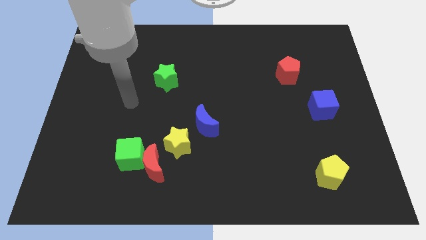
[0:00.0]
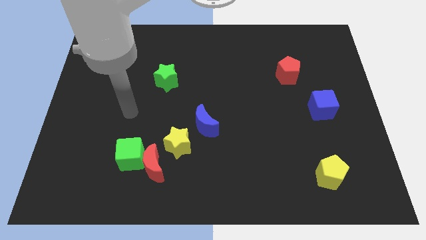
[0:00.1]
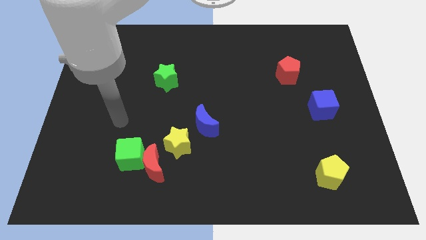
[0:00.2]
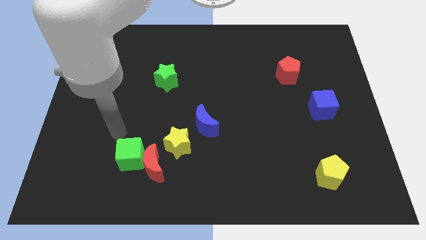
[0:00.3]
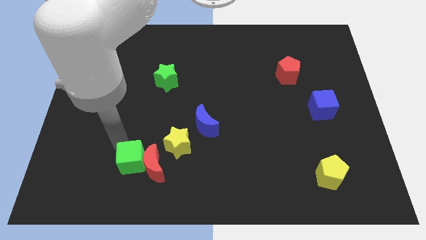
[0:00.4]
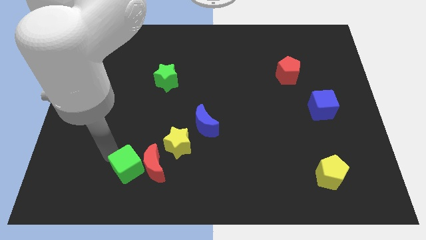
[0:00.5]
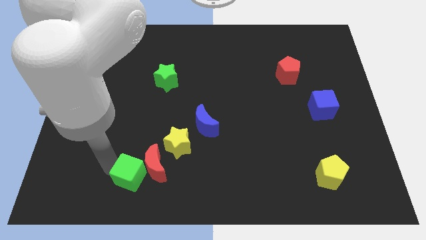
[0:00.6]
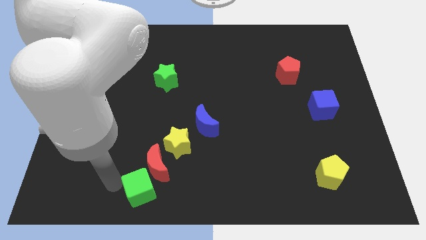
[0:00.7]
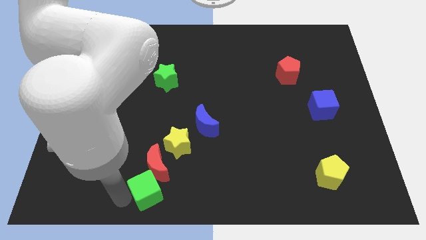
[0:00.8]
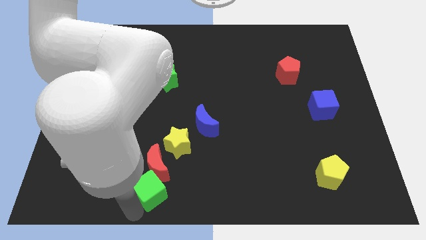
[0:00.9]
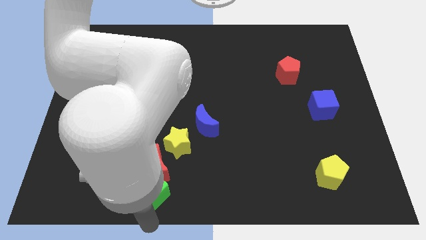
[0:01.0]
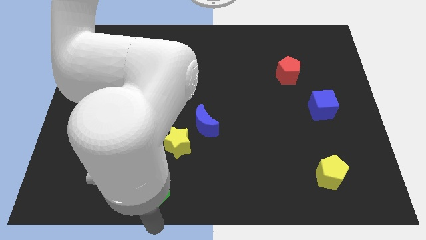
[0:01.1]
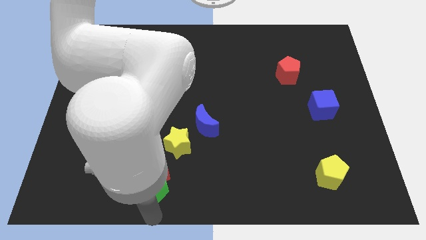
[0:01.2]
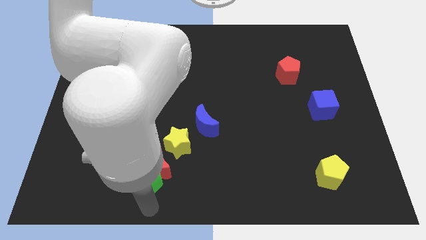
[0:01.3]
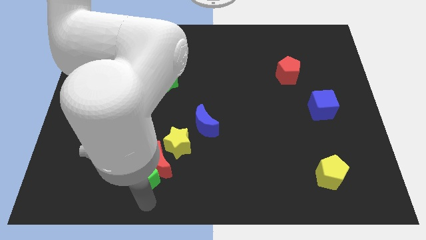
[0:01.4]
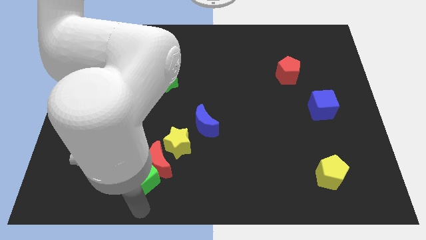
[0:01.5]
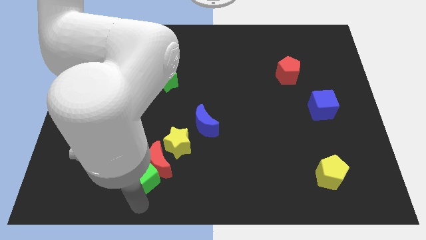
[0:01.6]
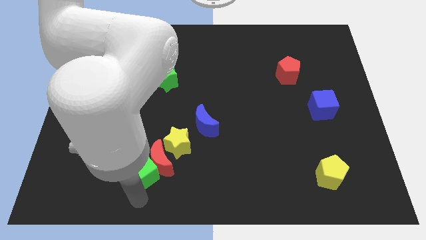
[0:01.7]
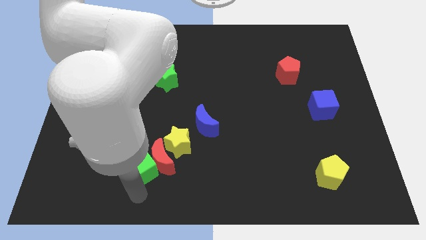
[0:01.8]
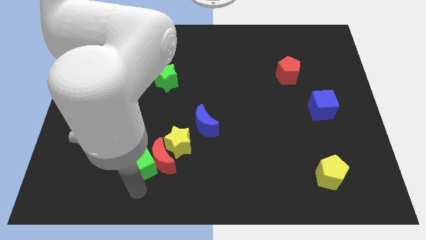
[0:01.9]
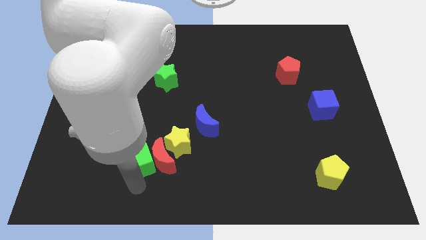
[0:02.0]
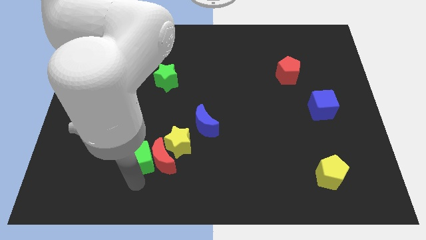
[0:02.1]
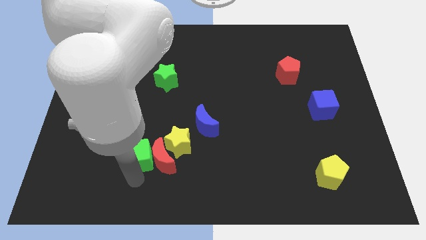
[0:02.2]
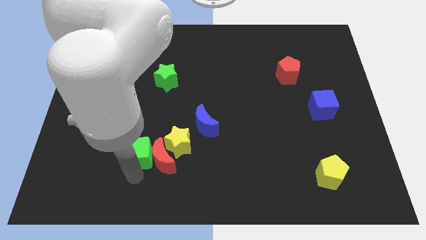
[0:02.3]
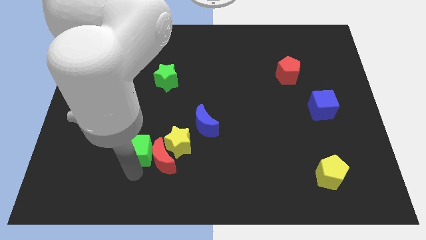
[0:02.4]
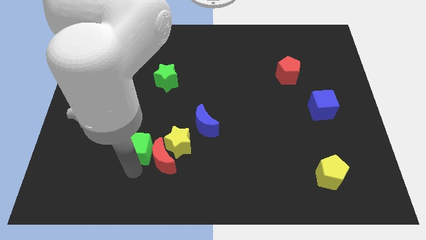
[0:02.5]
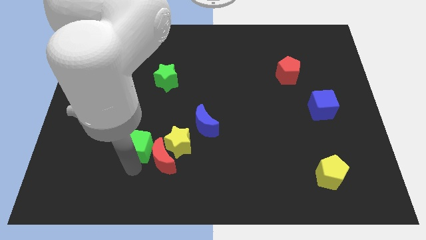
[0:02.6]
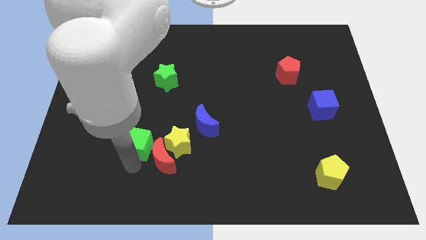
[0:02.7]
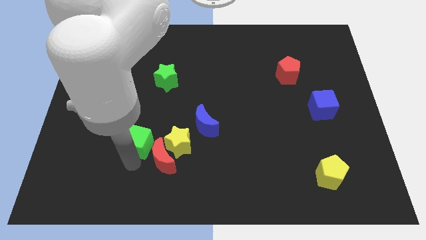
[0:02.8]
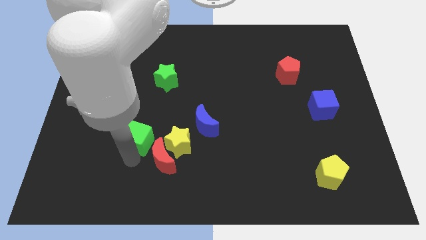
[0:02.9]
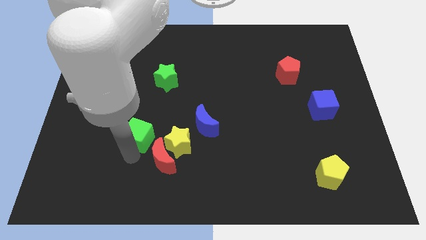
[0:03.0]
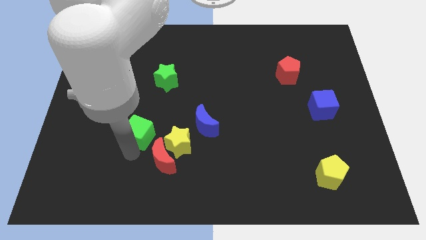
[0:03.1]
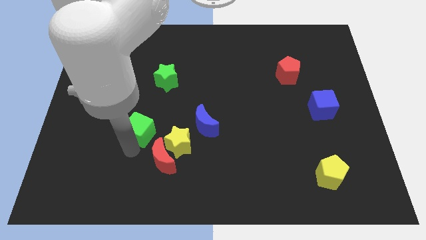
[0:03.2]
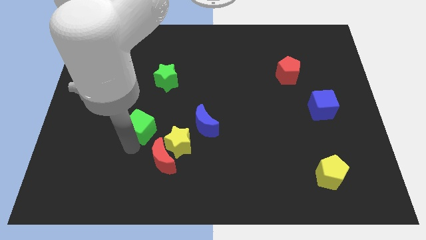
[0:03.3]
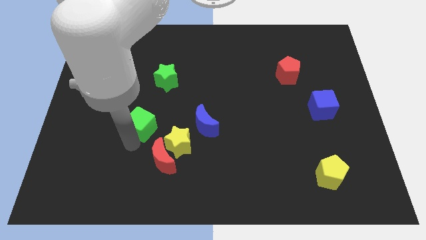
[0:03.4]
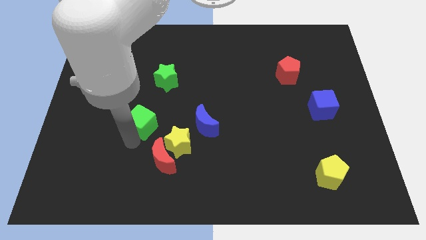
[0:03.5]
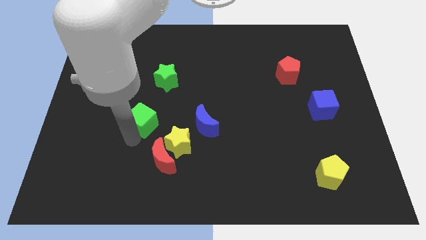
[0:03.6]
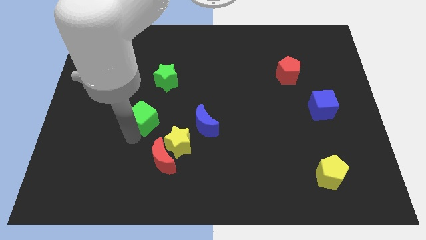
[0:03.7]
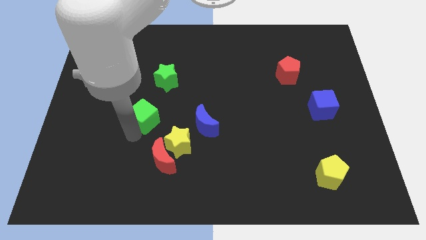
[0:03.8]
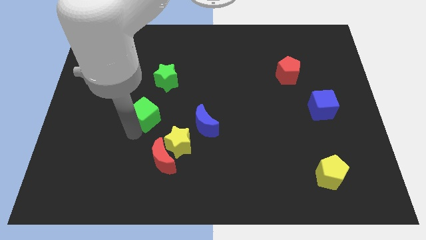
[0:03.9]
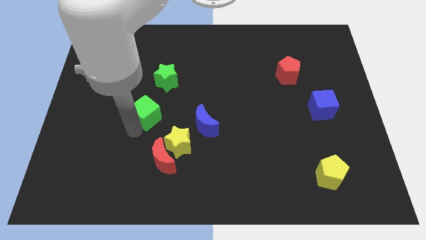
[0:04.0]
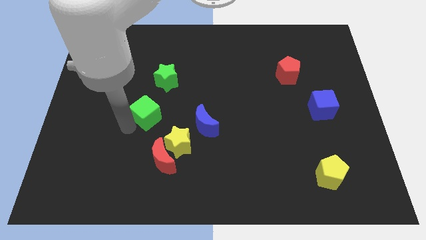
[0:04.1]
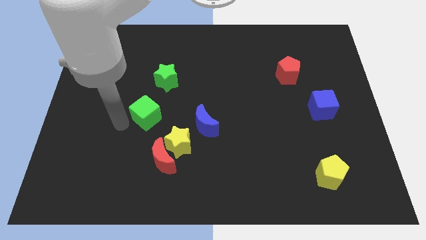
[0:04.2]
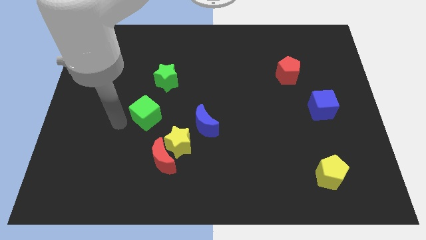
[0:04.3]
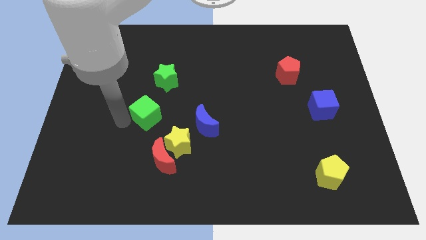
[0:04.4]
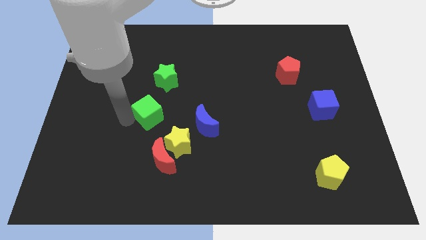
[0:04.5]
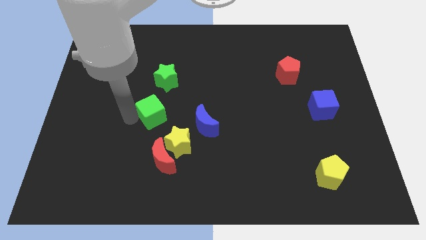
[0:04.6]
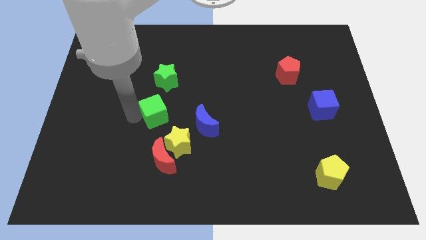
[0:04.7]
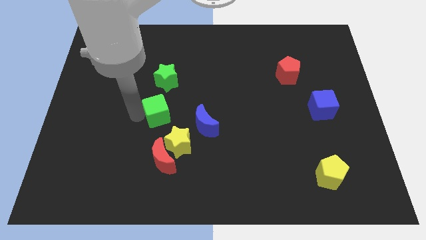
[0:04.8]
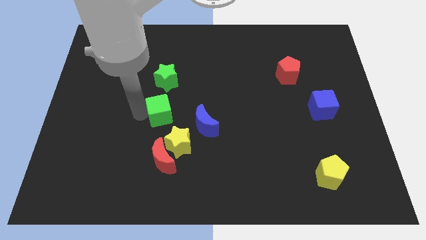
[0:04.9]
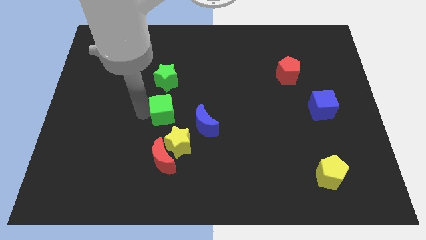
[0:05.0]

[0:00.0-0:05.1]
put the green cube to the top left side of the blue moon

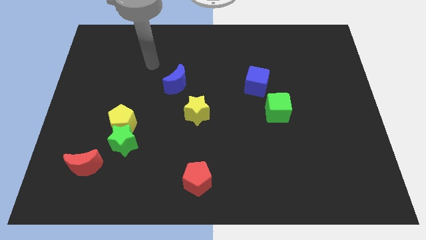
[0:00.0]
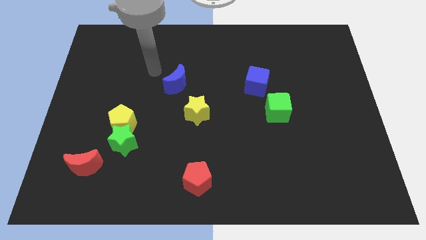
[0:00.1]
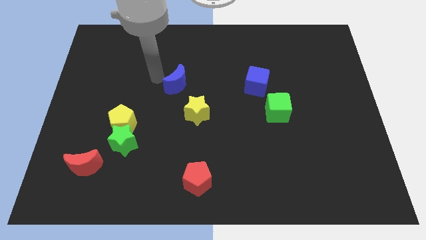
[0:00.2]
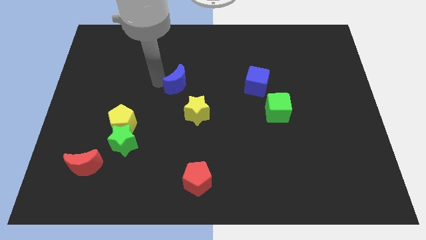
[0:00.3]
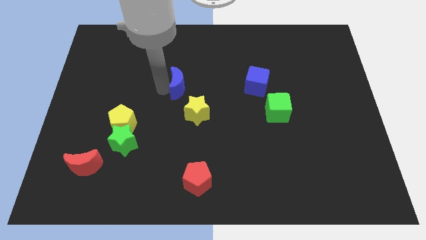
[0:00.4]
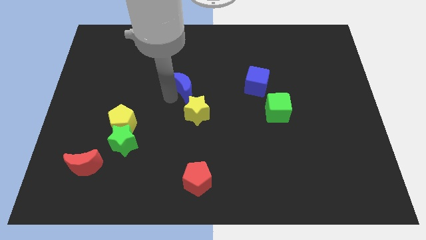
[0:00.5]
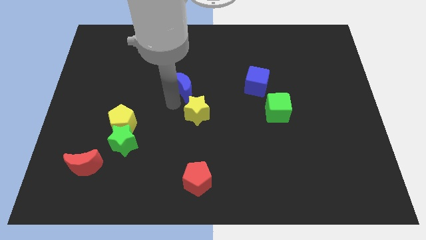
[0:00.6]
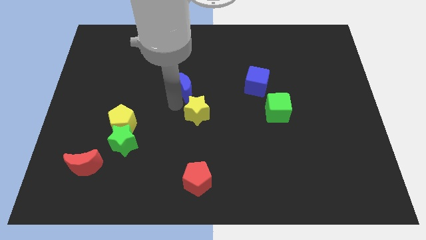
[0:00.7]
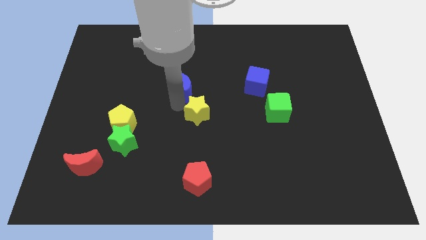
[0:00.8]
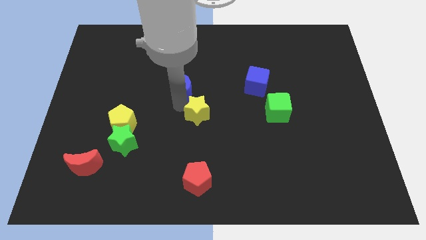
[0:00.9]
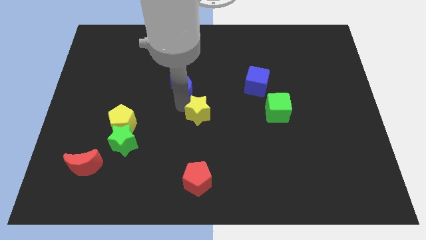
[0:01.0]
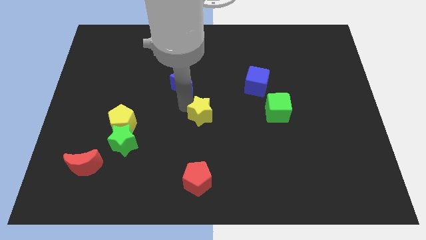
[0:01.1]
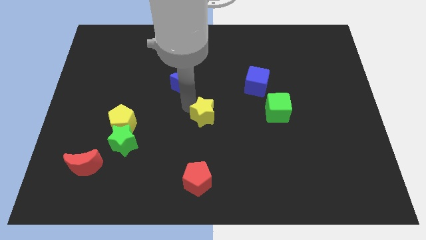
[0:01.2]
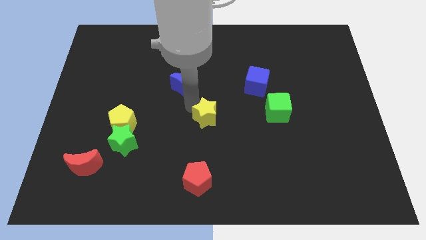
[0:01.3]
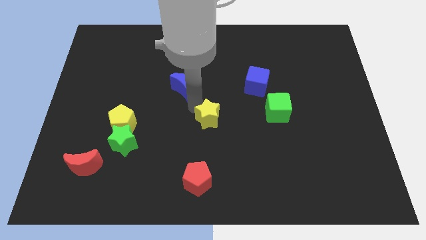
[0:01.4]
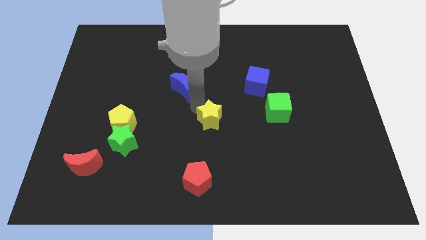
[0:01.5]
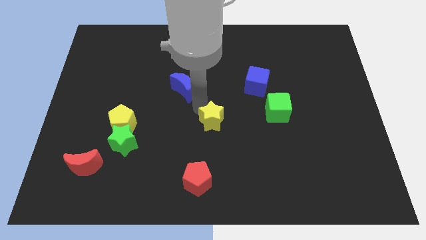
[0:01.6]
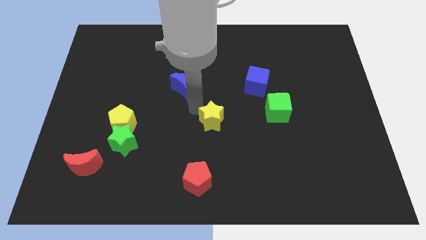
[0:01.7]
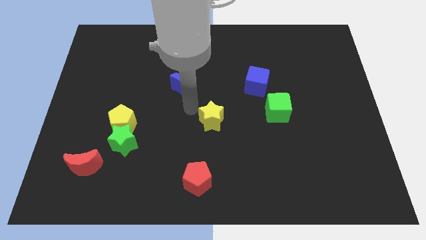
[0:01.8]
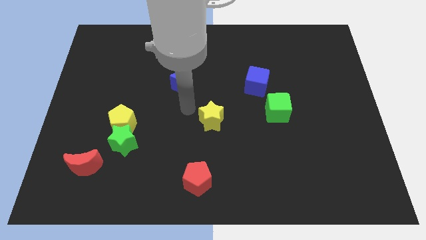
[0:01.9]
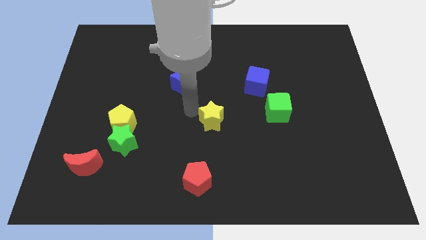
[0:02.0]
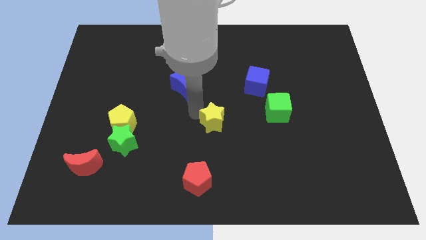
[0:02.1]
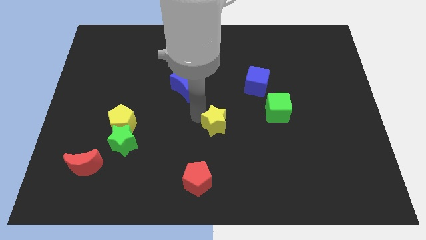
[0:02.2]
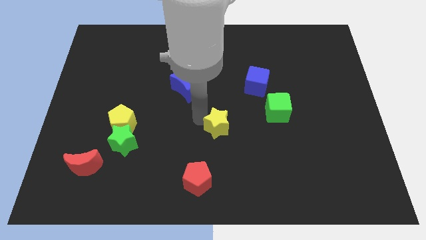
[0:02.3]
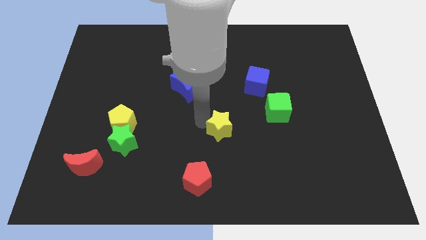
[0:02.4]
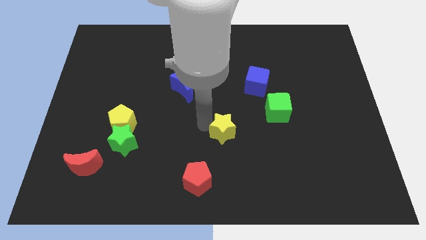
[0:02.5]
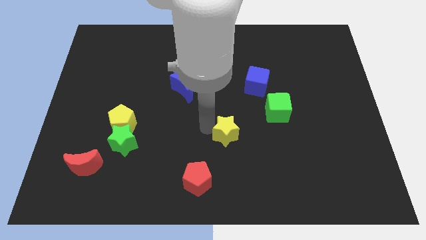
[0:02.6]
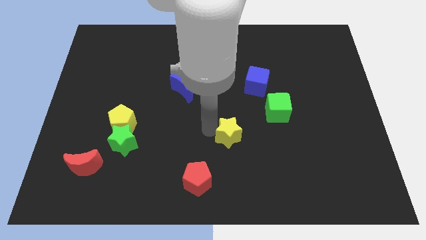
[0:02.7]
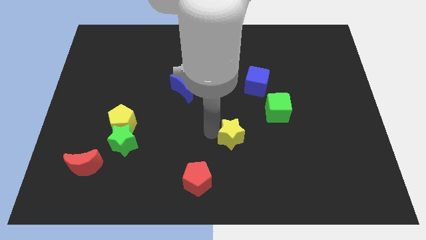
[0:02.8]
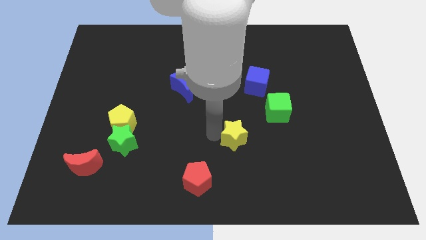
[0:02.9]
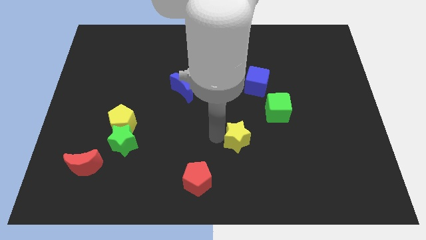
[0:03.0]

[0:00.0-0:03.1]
push the yellow star diagonally down and to the left of the green cube
